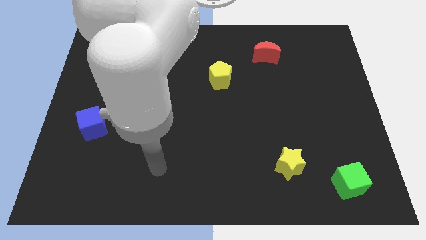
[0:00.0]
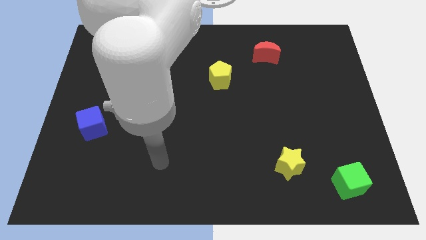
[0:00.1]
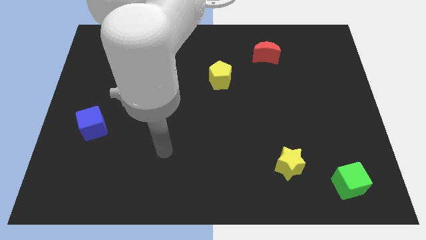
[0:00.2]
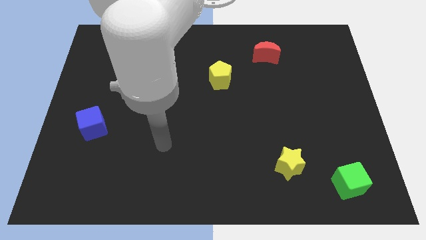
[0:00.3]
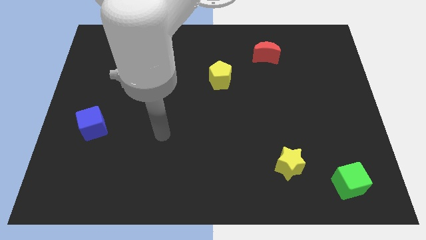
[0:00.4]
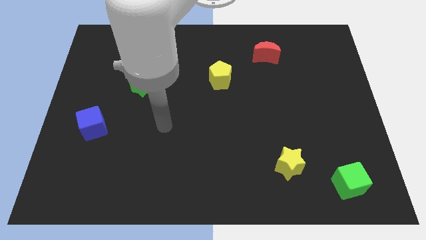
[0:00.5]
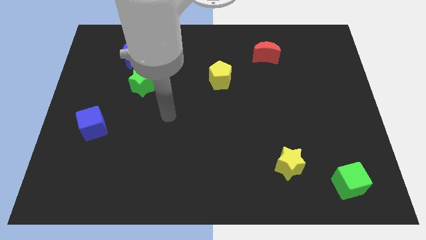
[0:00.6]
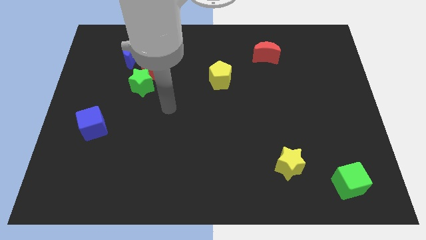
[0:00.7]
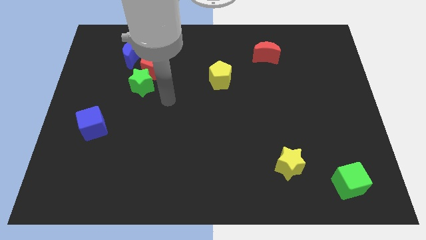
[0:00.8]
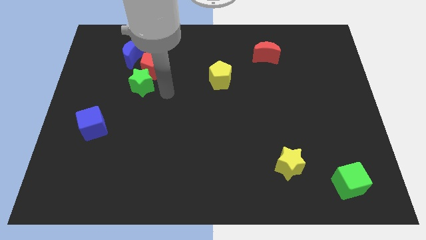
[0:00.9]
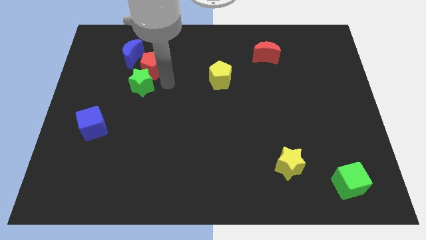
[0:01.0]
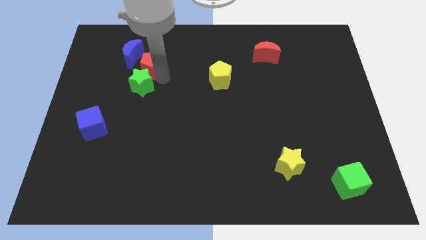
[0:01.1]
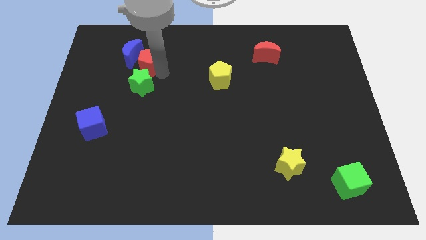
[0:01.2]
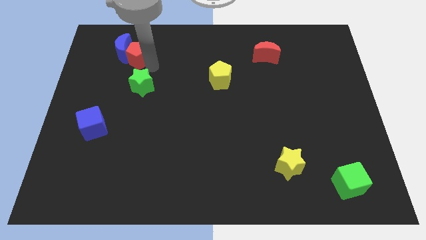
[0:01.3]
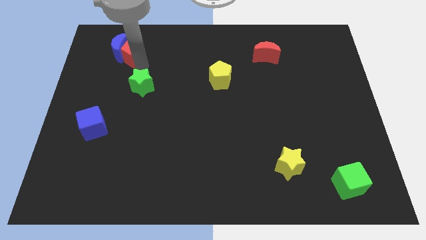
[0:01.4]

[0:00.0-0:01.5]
move the green star away from the red pentagon

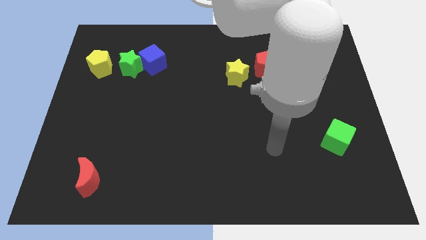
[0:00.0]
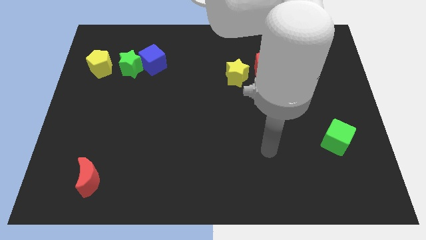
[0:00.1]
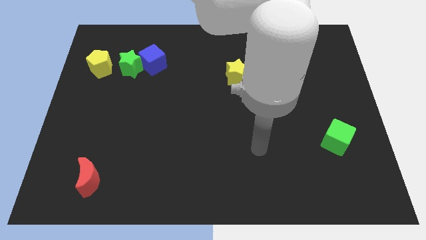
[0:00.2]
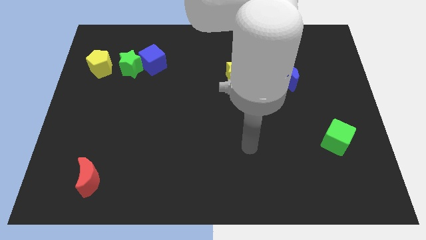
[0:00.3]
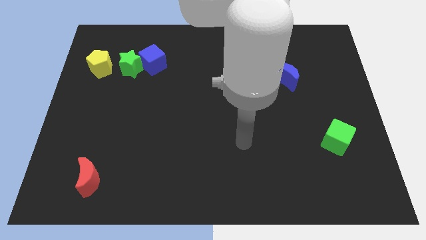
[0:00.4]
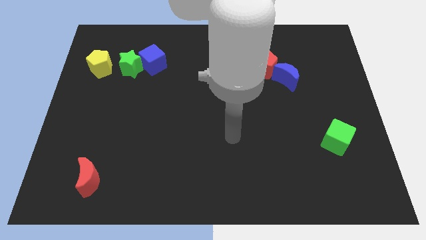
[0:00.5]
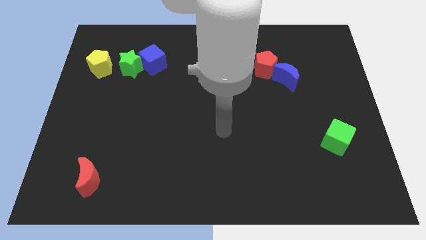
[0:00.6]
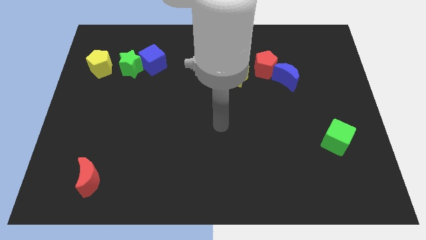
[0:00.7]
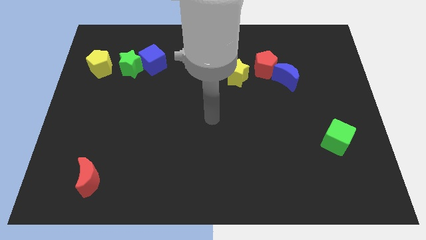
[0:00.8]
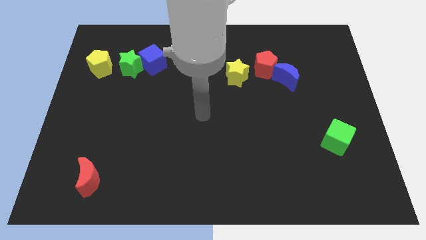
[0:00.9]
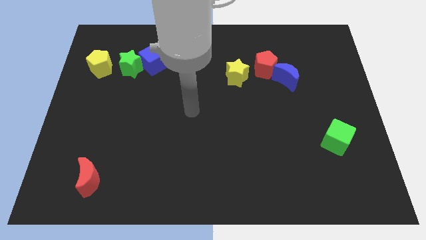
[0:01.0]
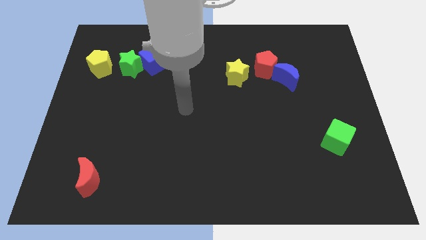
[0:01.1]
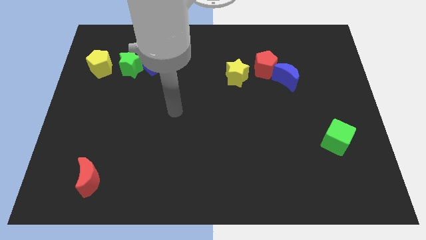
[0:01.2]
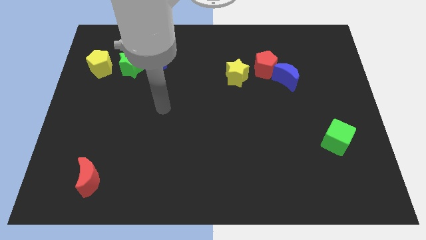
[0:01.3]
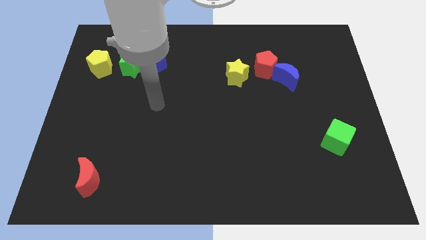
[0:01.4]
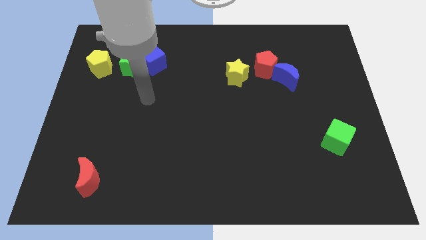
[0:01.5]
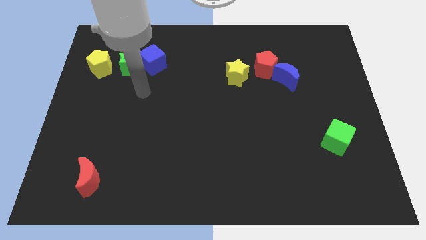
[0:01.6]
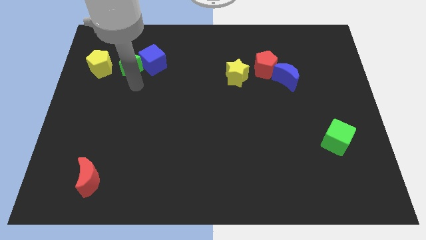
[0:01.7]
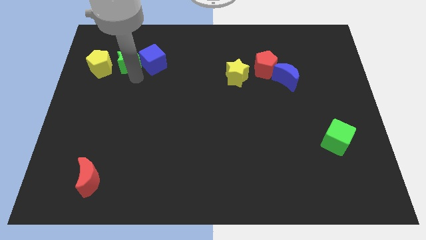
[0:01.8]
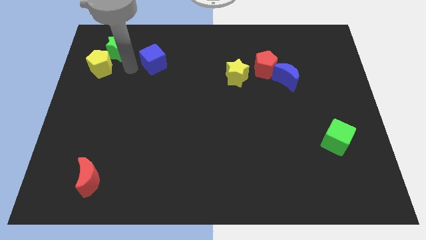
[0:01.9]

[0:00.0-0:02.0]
separate the blue cube from the green star

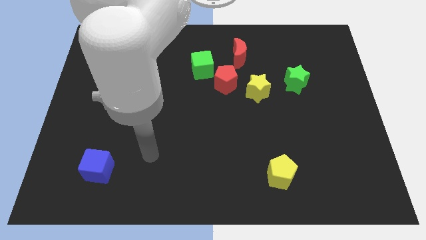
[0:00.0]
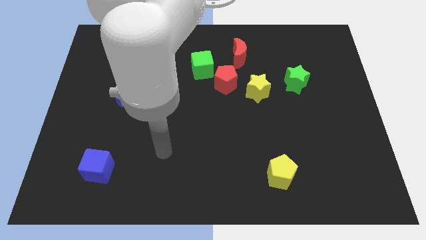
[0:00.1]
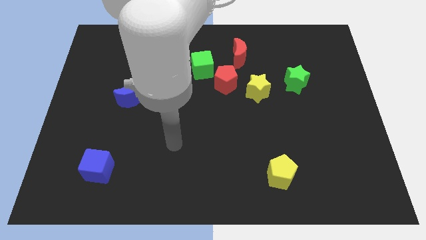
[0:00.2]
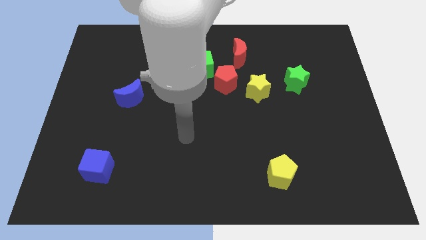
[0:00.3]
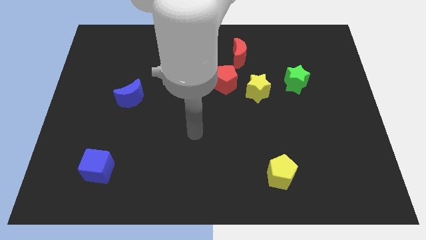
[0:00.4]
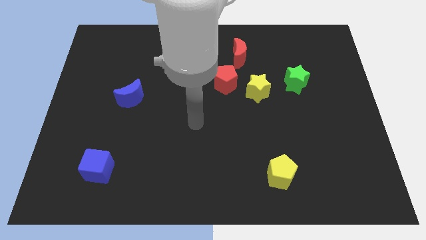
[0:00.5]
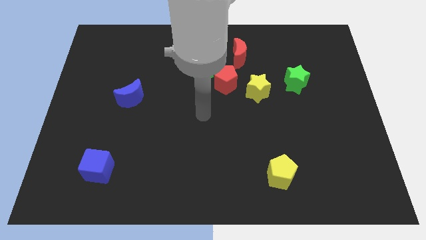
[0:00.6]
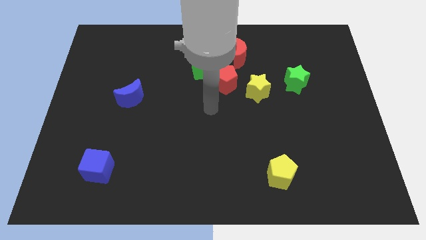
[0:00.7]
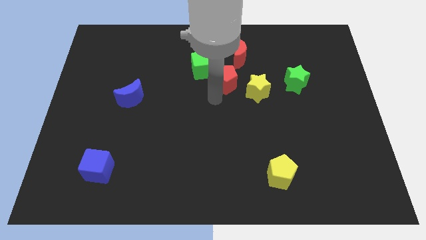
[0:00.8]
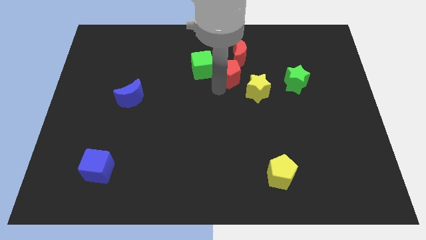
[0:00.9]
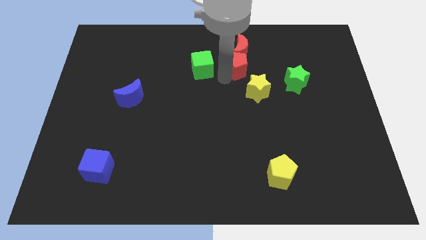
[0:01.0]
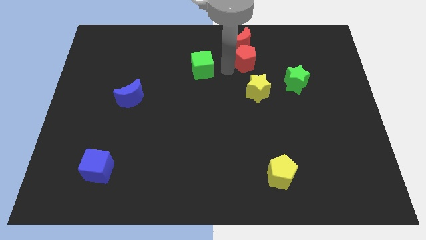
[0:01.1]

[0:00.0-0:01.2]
separate the green cube from the red pentagon

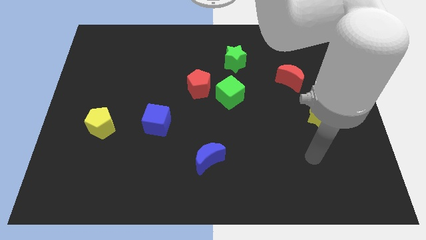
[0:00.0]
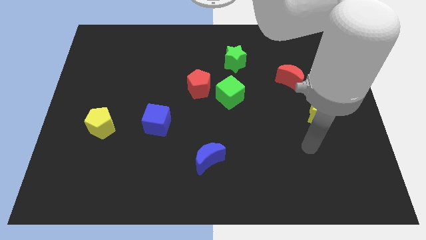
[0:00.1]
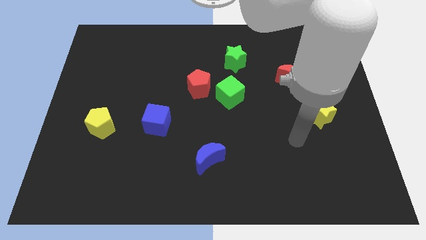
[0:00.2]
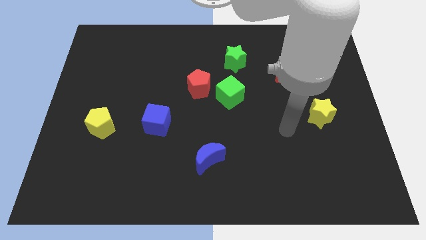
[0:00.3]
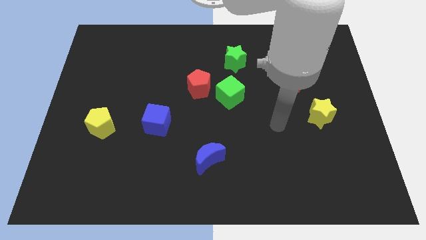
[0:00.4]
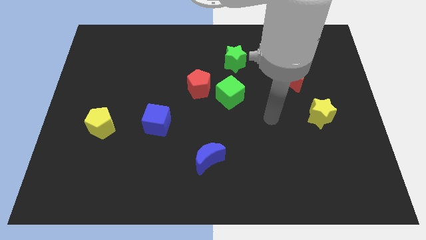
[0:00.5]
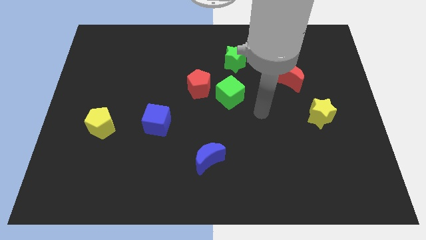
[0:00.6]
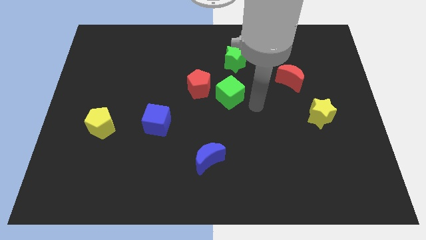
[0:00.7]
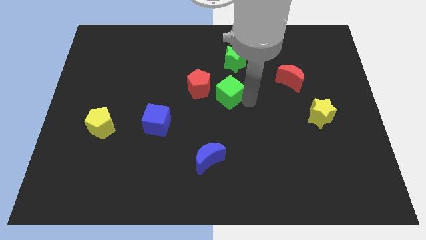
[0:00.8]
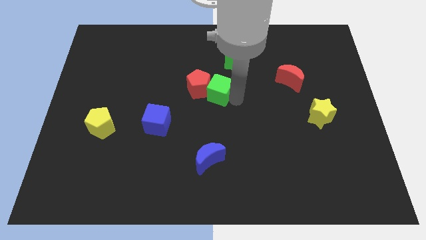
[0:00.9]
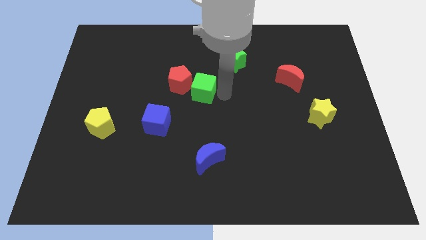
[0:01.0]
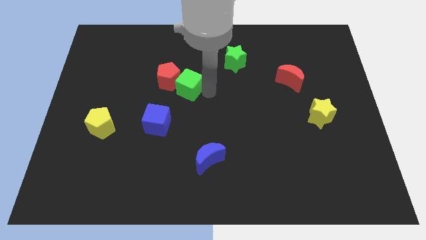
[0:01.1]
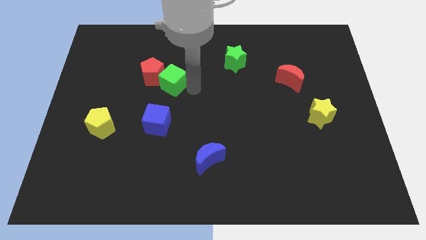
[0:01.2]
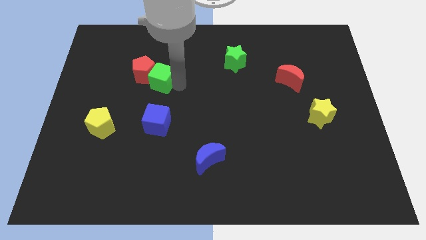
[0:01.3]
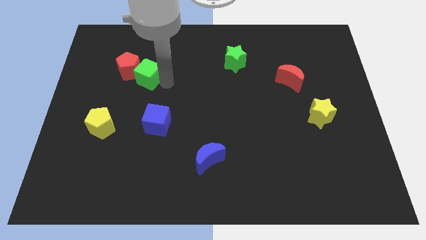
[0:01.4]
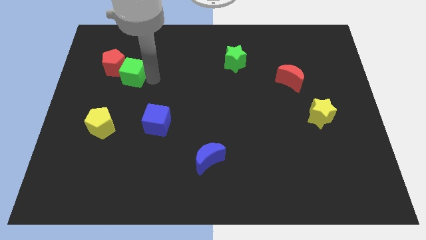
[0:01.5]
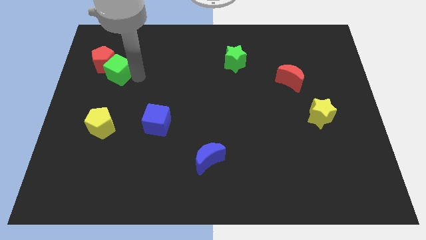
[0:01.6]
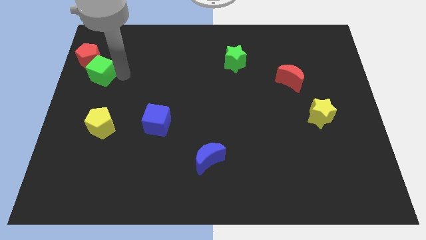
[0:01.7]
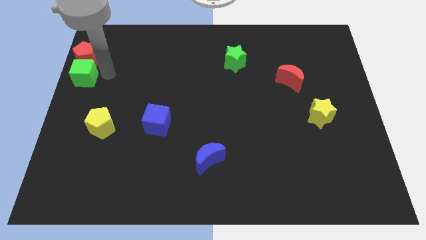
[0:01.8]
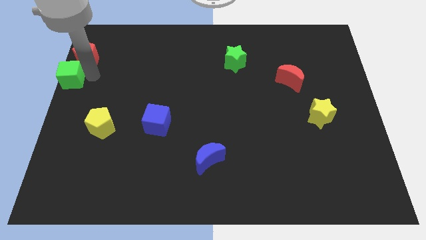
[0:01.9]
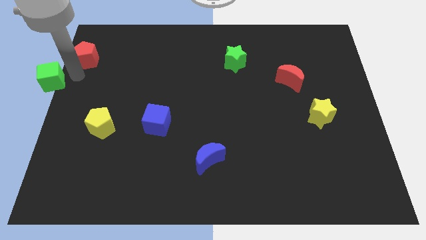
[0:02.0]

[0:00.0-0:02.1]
move the red pentagon away from the green cube

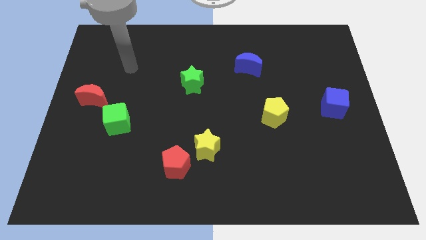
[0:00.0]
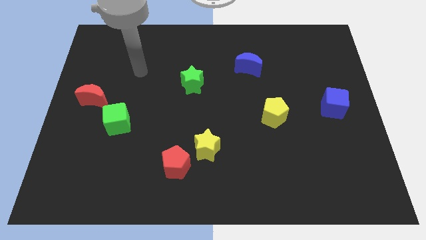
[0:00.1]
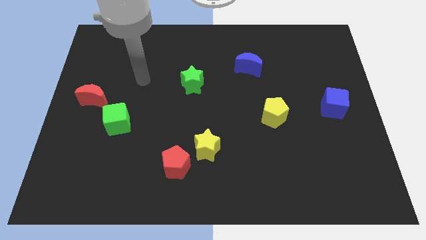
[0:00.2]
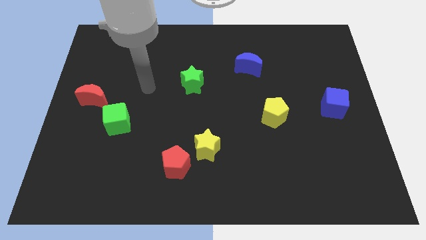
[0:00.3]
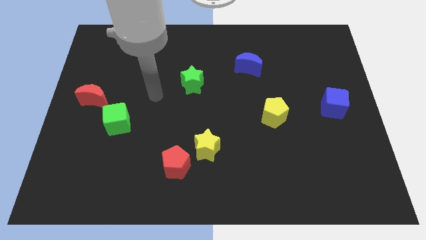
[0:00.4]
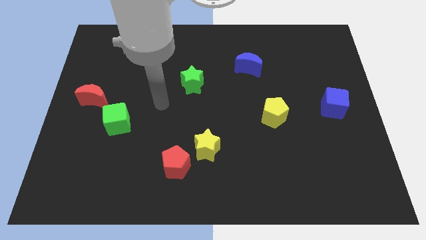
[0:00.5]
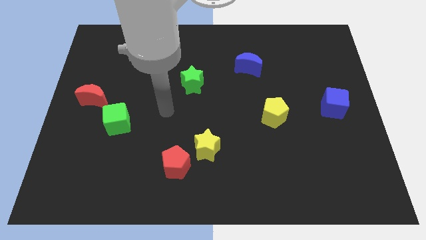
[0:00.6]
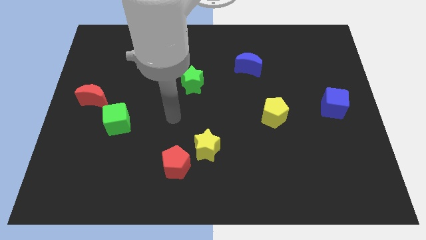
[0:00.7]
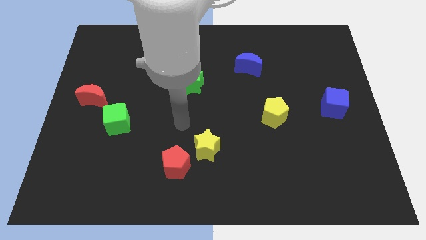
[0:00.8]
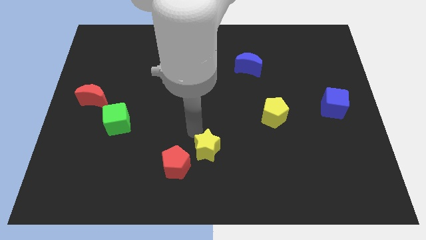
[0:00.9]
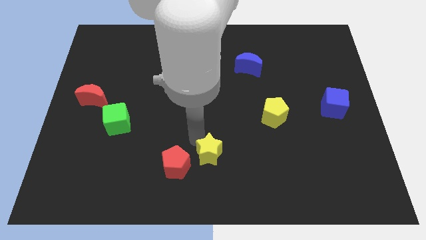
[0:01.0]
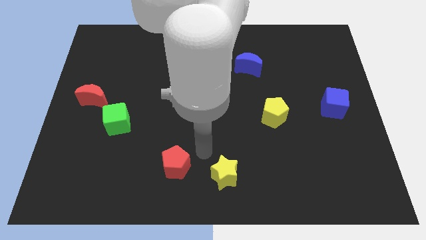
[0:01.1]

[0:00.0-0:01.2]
pull the red pentagon apart from the yellow star

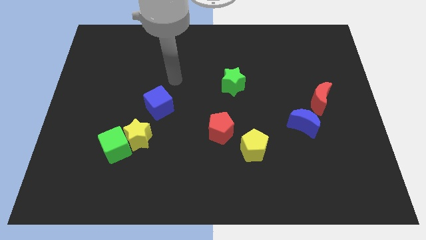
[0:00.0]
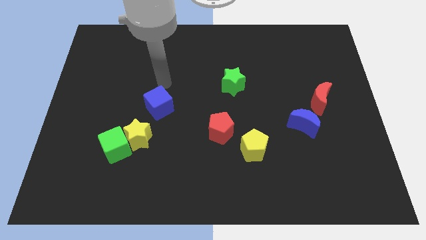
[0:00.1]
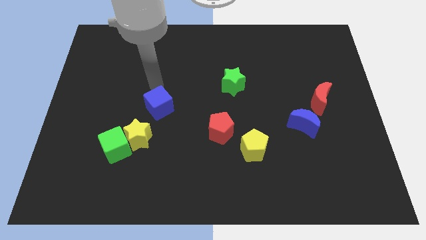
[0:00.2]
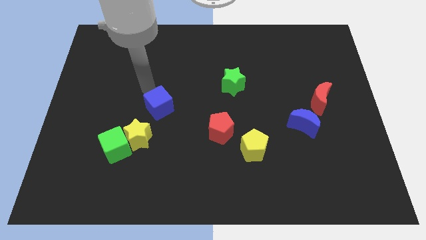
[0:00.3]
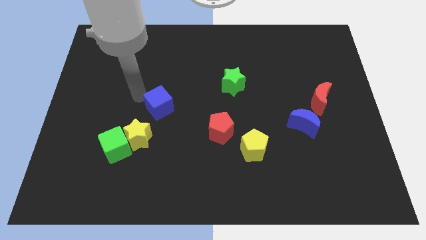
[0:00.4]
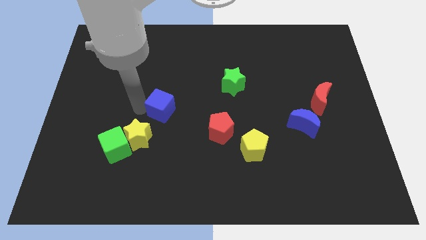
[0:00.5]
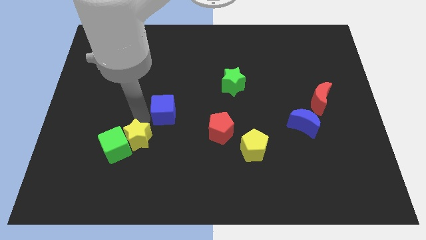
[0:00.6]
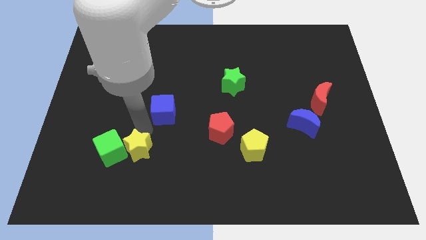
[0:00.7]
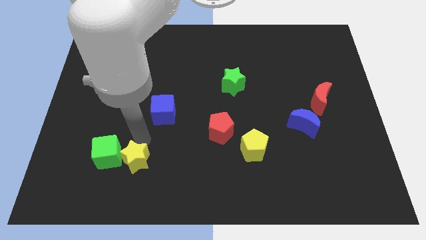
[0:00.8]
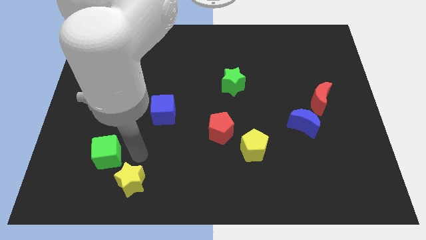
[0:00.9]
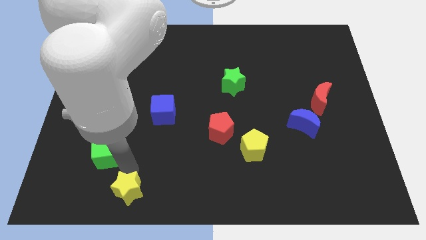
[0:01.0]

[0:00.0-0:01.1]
move the green cube away from the yellow star

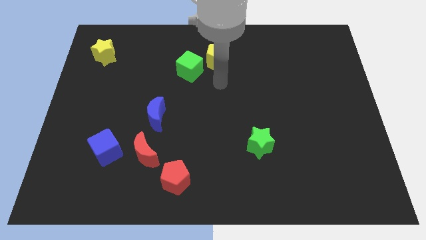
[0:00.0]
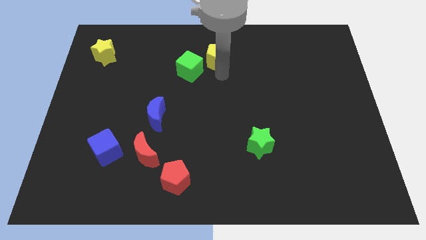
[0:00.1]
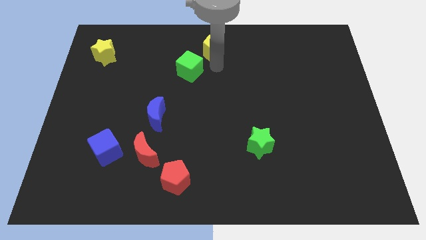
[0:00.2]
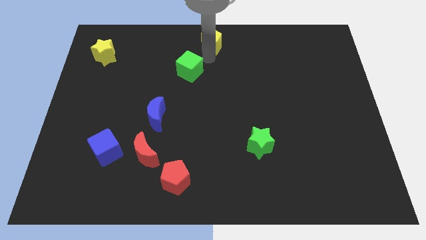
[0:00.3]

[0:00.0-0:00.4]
pull the green cube apart from the yellow pentagon
